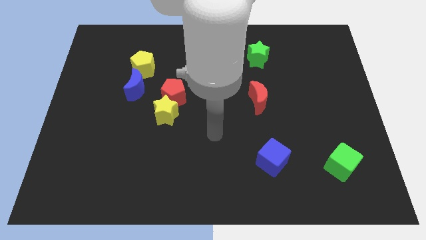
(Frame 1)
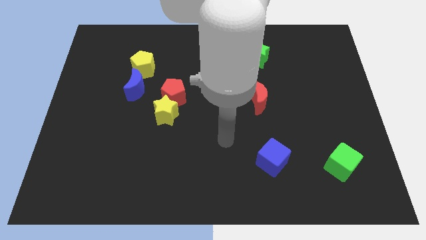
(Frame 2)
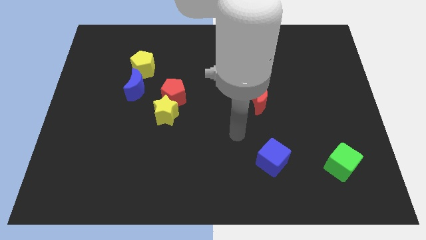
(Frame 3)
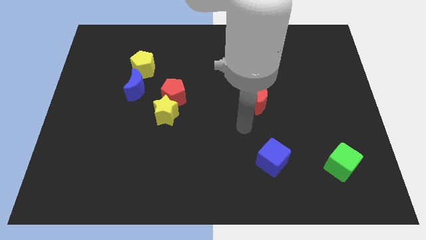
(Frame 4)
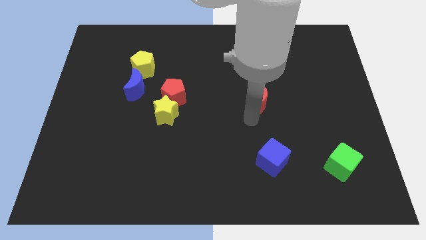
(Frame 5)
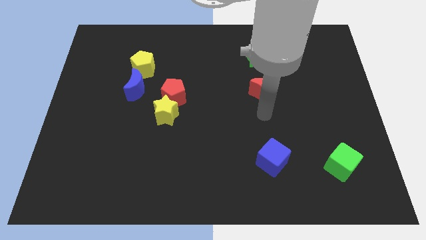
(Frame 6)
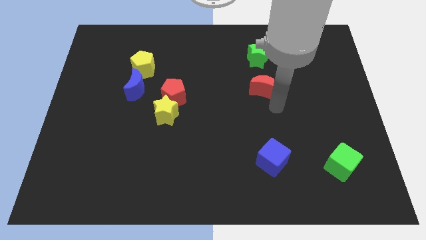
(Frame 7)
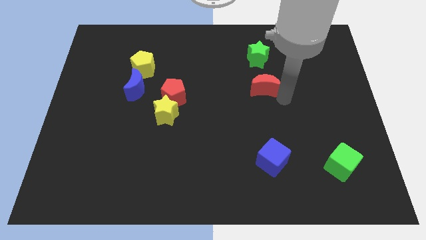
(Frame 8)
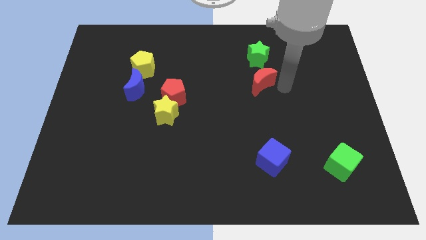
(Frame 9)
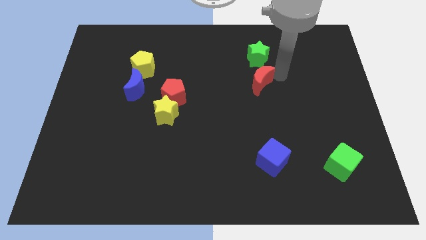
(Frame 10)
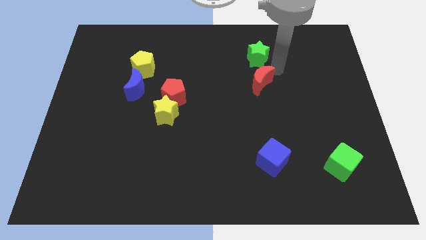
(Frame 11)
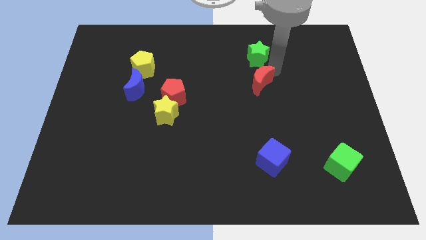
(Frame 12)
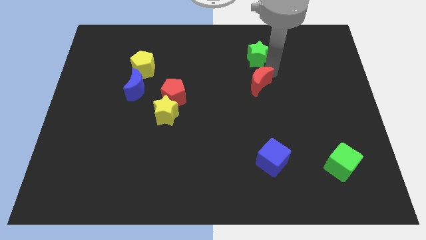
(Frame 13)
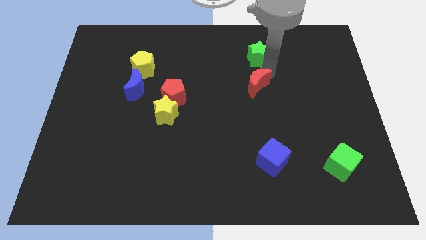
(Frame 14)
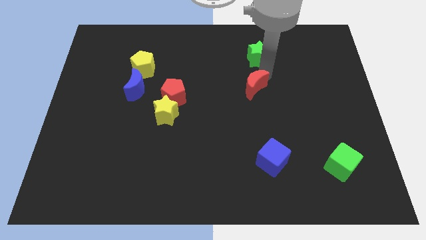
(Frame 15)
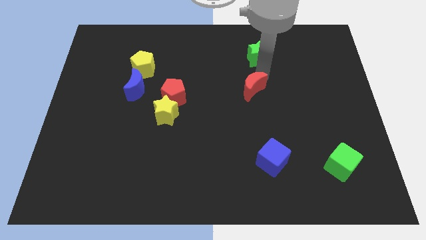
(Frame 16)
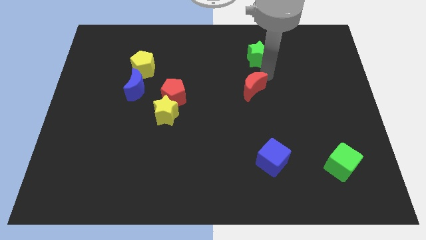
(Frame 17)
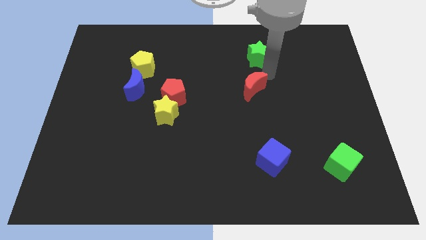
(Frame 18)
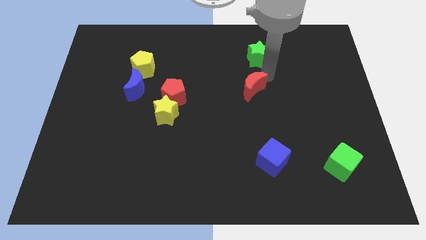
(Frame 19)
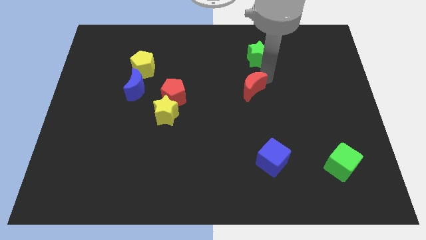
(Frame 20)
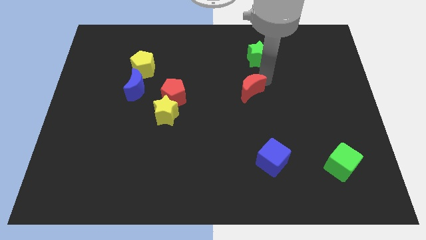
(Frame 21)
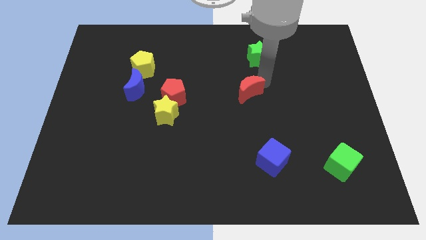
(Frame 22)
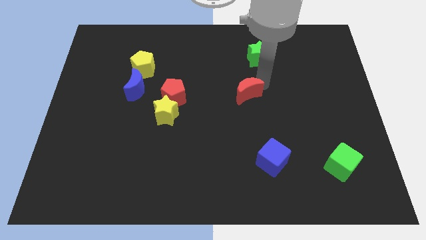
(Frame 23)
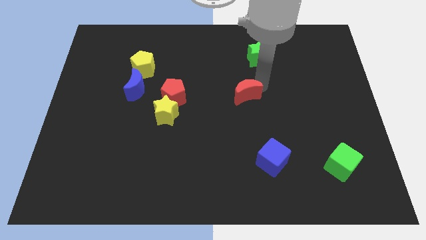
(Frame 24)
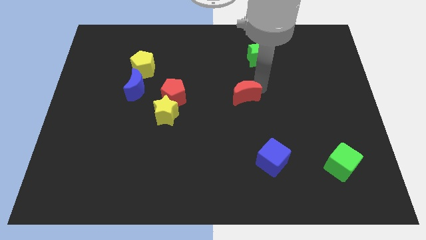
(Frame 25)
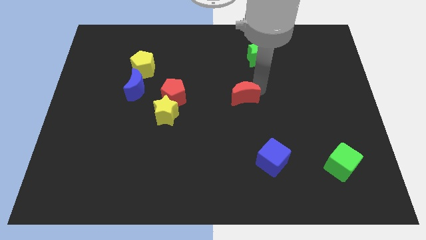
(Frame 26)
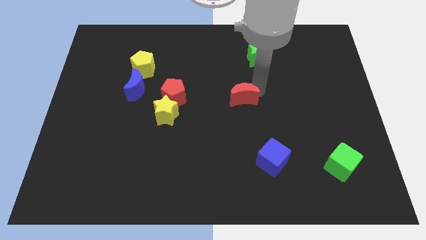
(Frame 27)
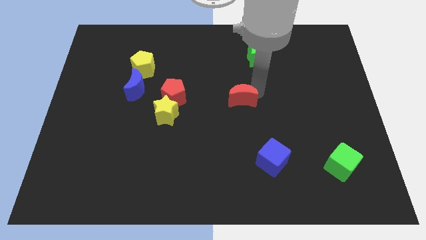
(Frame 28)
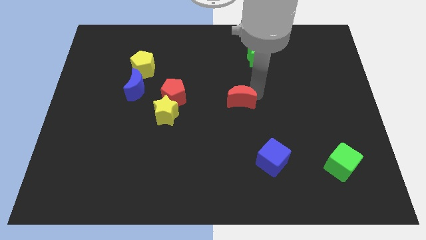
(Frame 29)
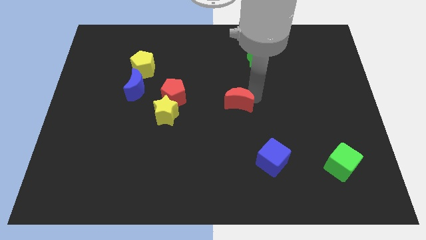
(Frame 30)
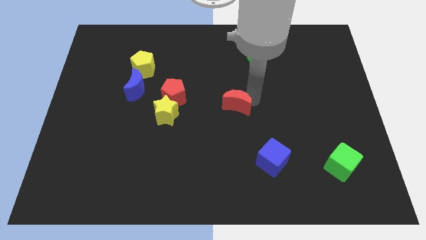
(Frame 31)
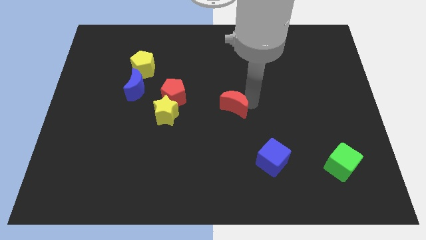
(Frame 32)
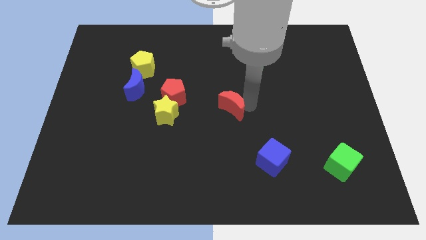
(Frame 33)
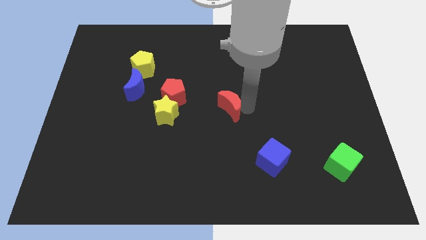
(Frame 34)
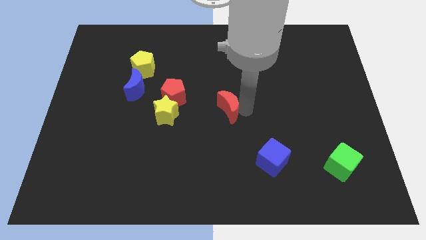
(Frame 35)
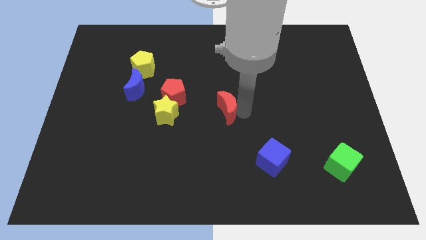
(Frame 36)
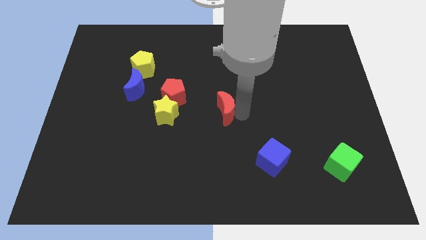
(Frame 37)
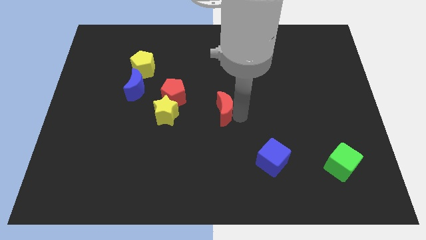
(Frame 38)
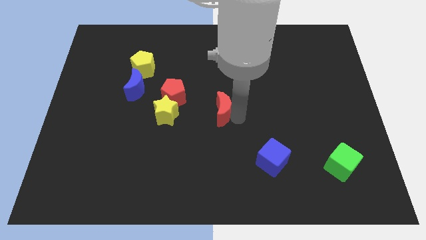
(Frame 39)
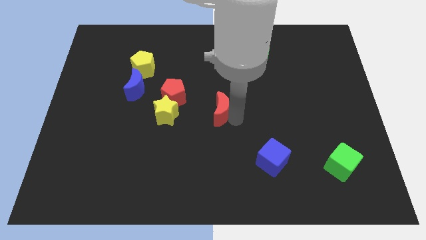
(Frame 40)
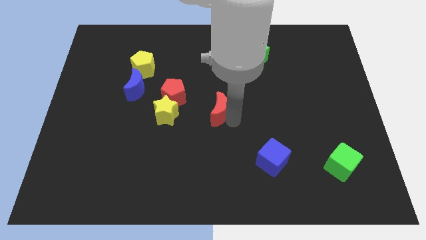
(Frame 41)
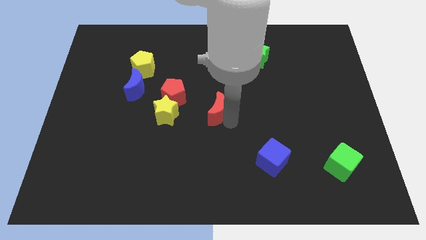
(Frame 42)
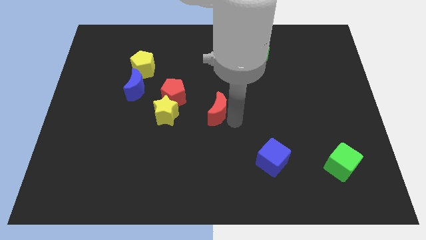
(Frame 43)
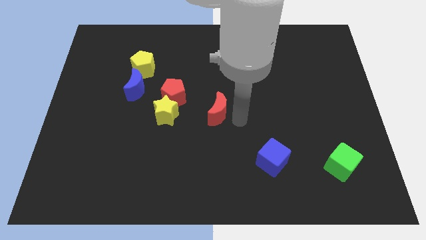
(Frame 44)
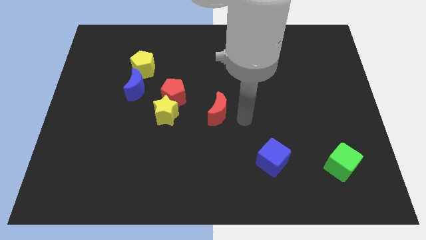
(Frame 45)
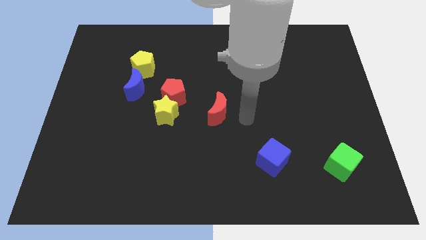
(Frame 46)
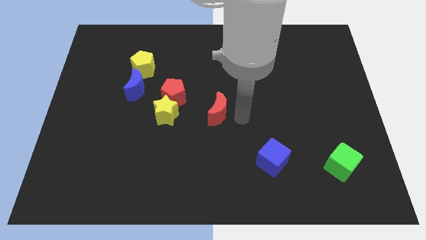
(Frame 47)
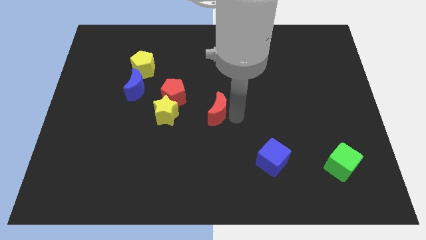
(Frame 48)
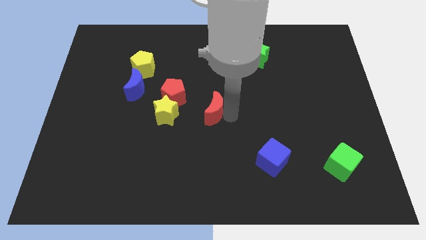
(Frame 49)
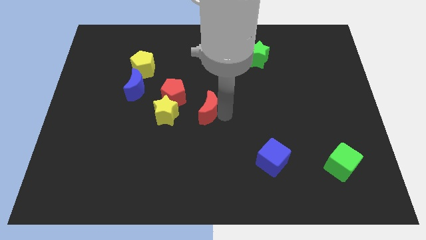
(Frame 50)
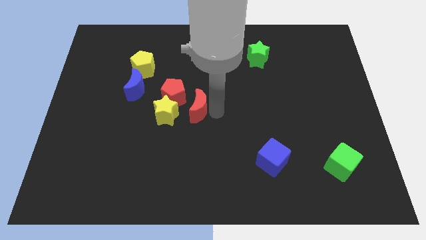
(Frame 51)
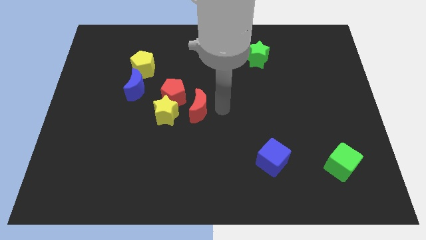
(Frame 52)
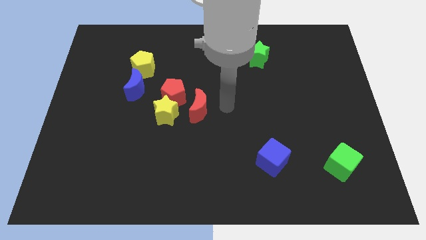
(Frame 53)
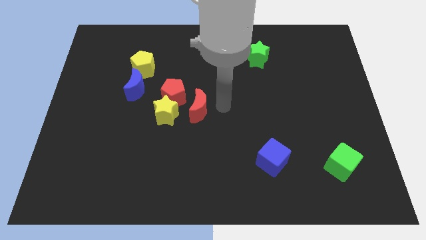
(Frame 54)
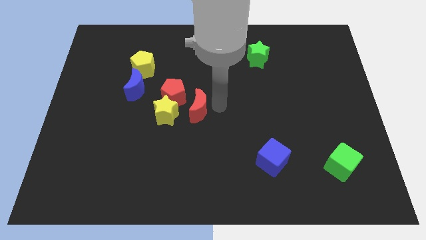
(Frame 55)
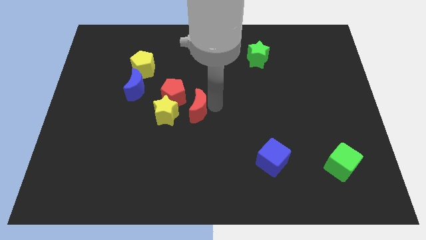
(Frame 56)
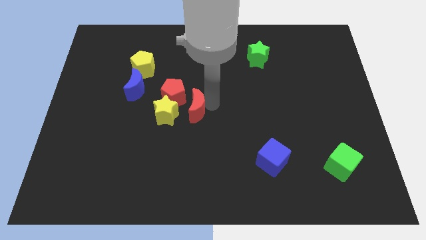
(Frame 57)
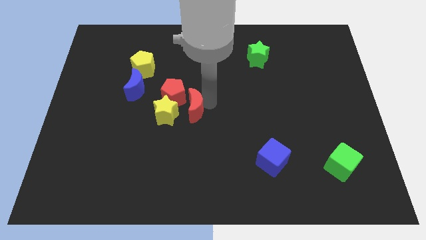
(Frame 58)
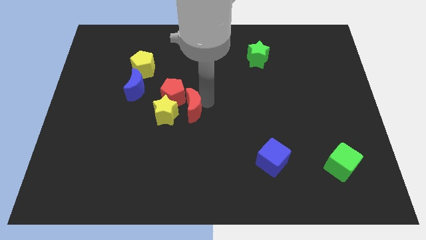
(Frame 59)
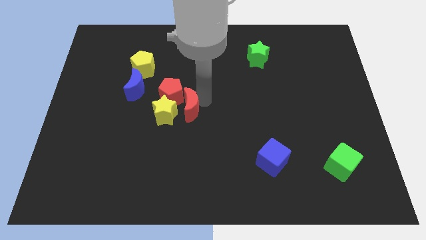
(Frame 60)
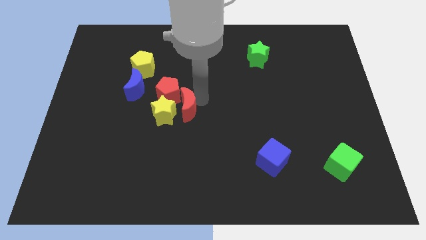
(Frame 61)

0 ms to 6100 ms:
slide the red moon to the yellow star

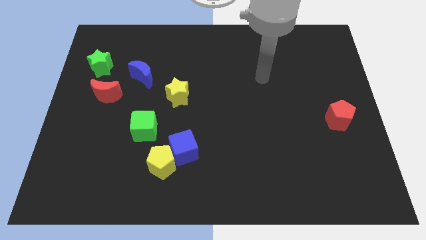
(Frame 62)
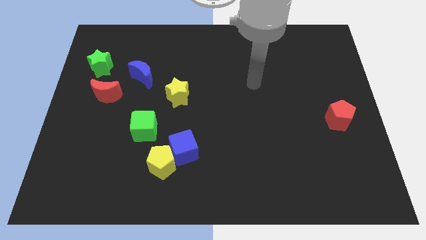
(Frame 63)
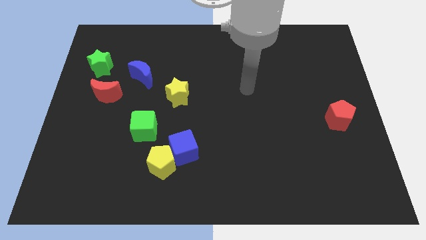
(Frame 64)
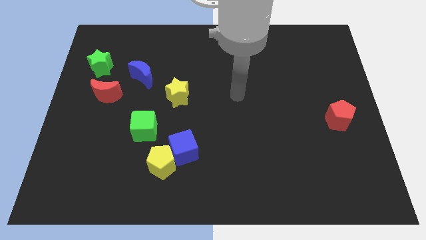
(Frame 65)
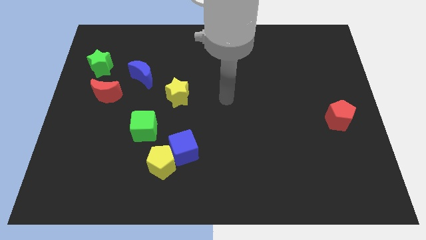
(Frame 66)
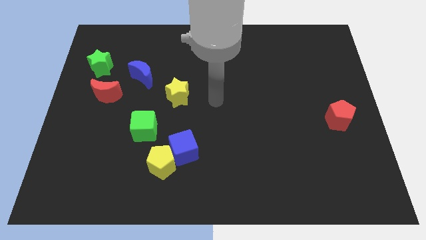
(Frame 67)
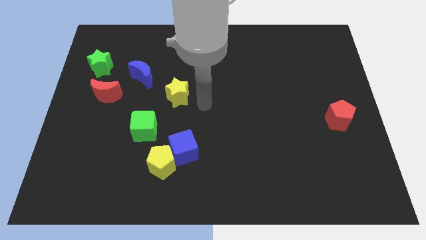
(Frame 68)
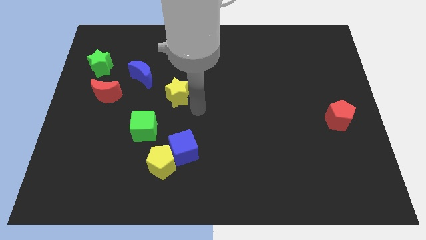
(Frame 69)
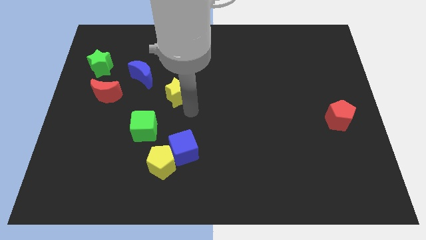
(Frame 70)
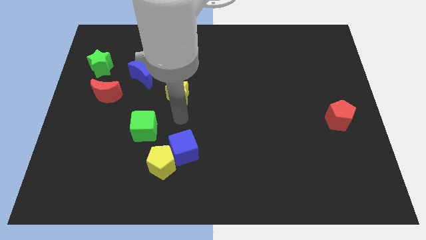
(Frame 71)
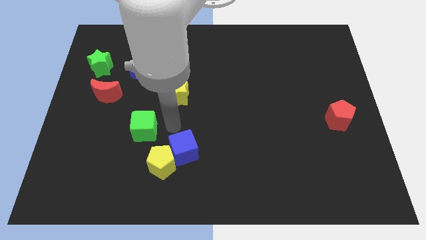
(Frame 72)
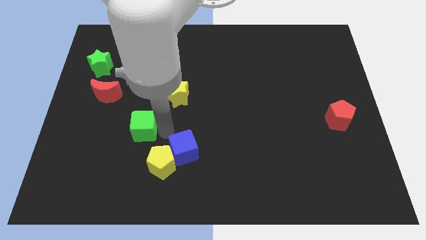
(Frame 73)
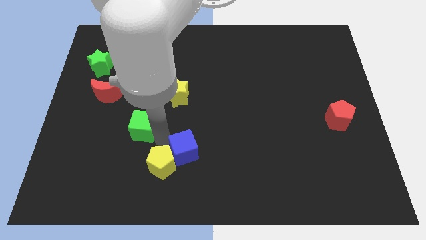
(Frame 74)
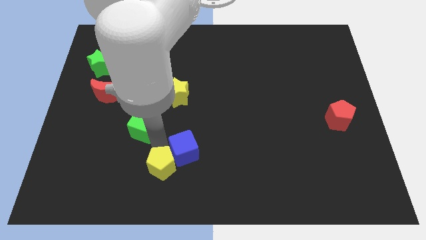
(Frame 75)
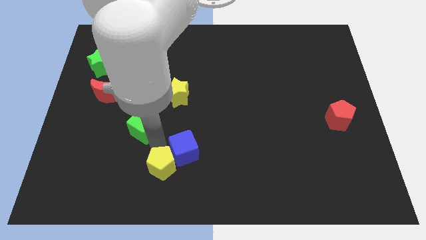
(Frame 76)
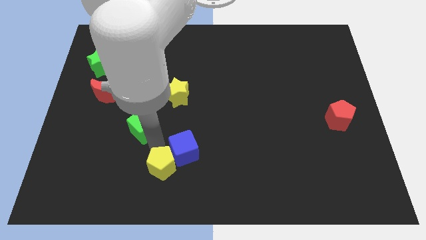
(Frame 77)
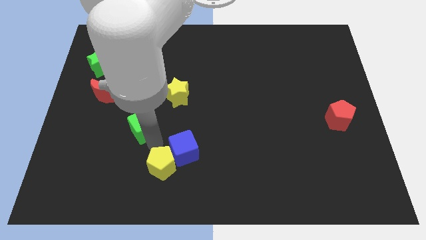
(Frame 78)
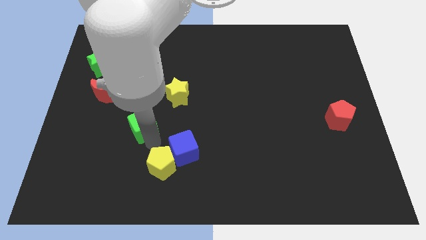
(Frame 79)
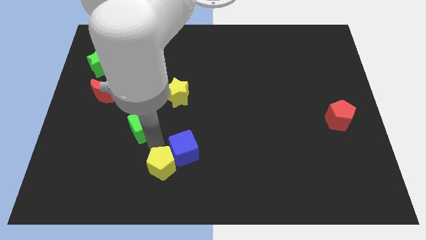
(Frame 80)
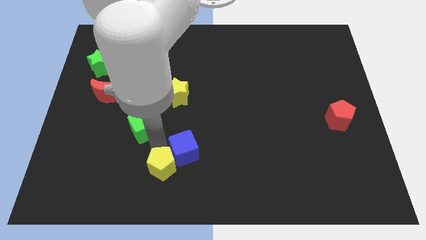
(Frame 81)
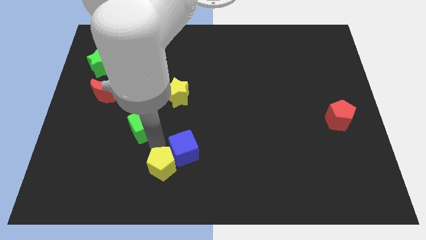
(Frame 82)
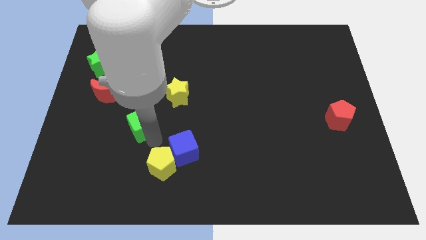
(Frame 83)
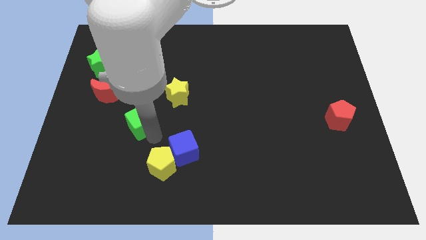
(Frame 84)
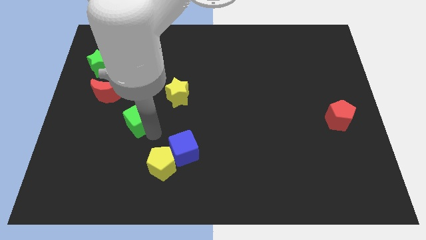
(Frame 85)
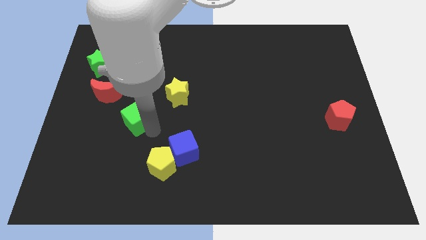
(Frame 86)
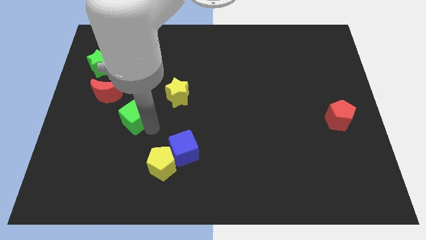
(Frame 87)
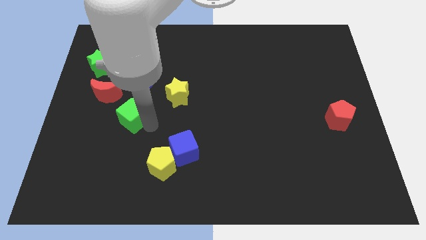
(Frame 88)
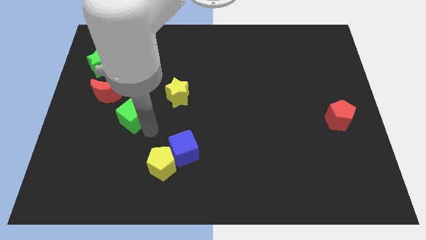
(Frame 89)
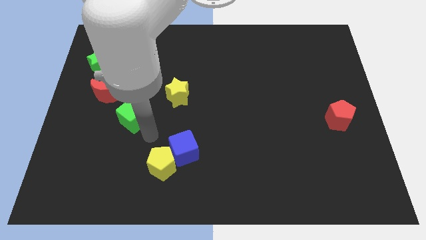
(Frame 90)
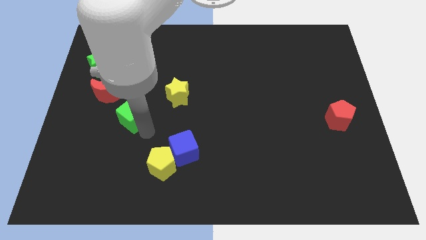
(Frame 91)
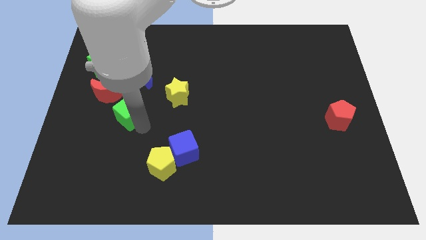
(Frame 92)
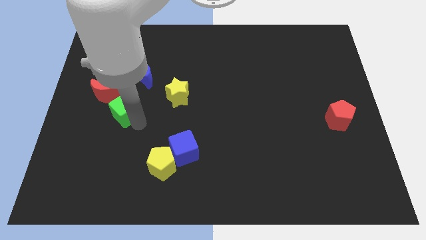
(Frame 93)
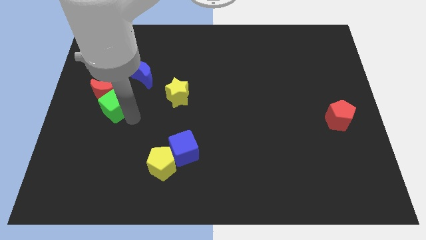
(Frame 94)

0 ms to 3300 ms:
push the green cube towards the red moon
